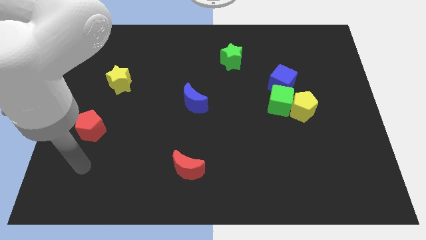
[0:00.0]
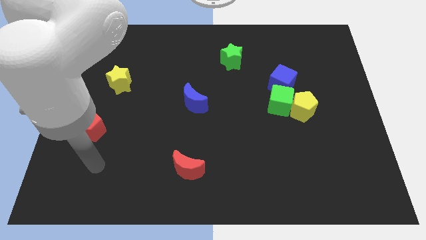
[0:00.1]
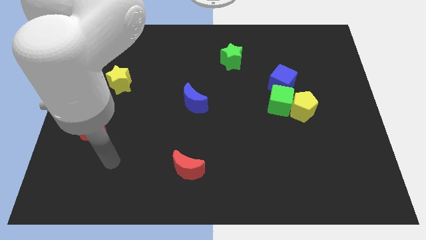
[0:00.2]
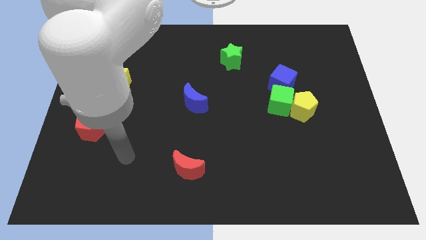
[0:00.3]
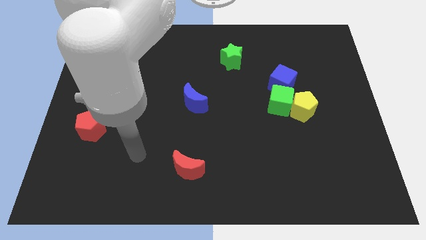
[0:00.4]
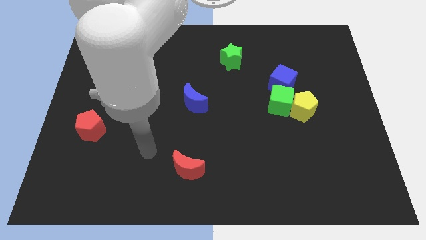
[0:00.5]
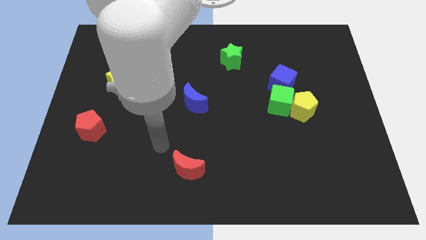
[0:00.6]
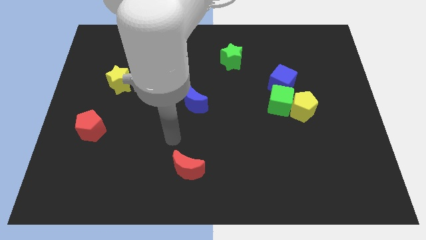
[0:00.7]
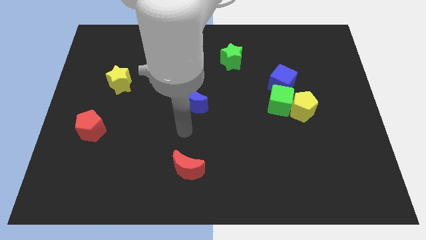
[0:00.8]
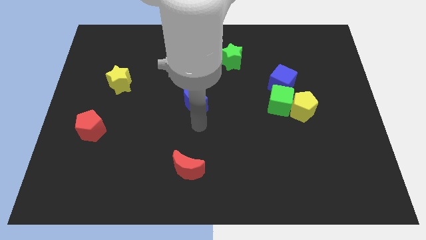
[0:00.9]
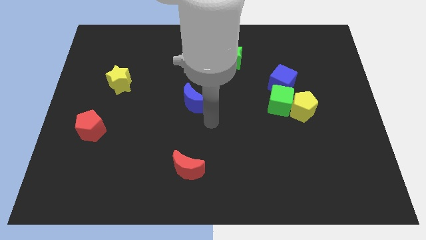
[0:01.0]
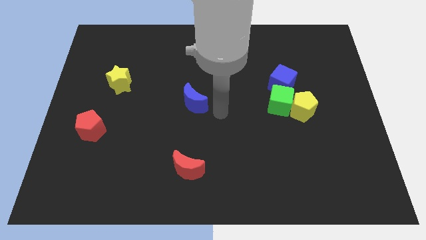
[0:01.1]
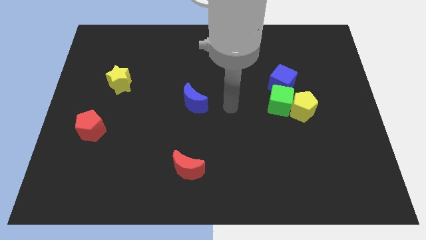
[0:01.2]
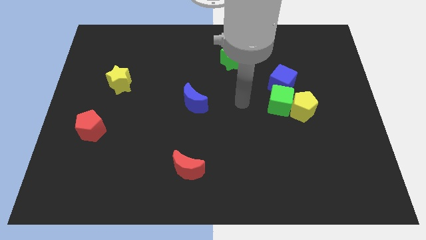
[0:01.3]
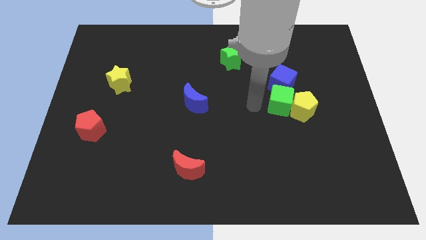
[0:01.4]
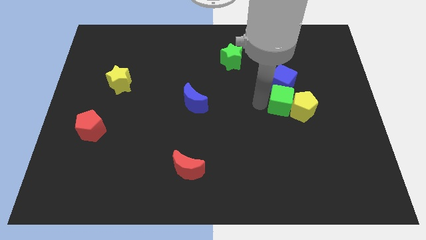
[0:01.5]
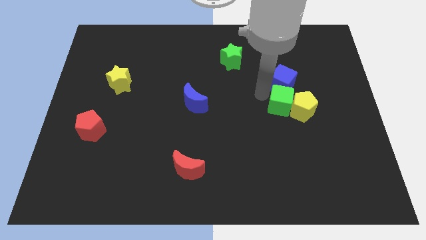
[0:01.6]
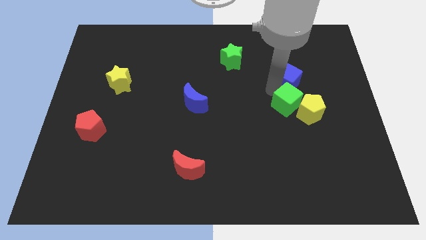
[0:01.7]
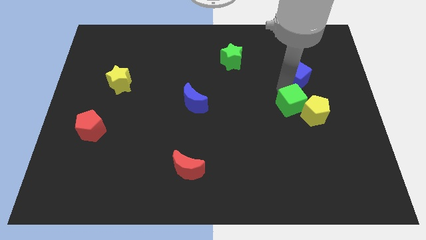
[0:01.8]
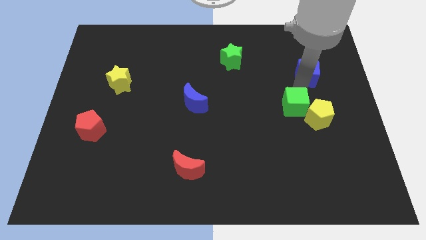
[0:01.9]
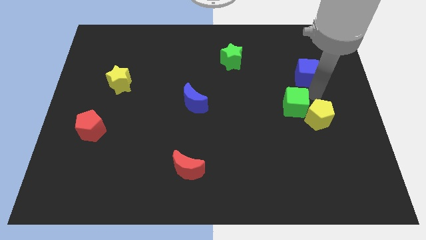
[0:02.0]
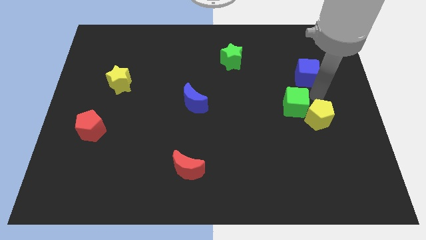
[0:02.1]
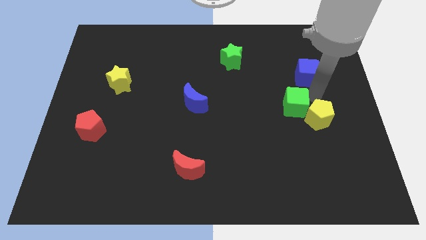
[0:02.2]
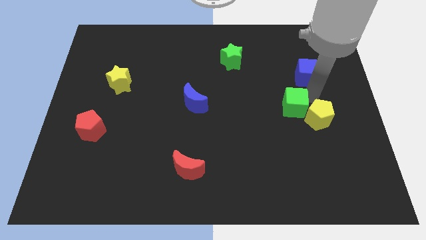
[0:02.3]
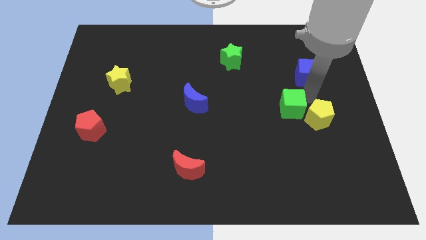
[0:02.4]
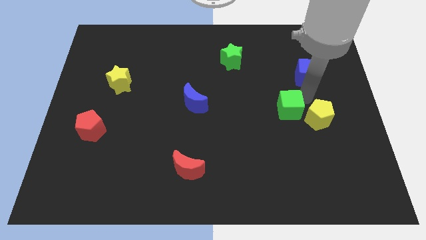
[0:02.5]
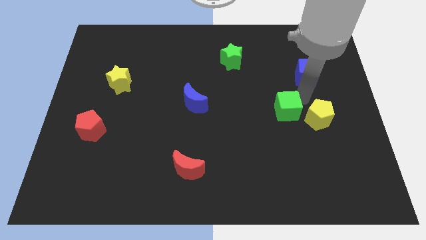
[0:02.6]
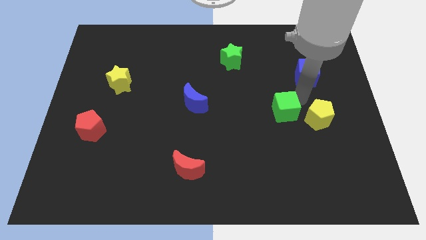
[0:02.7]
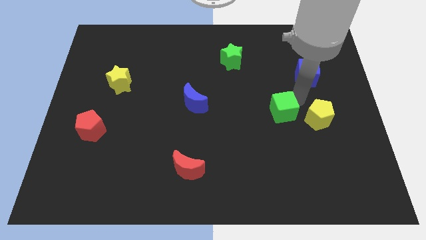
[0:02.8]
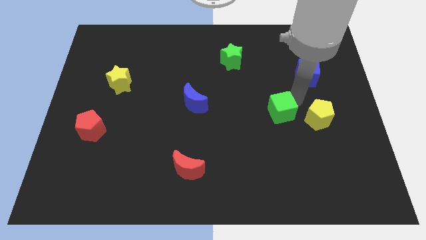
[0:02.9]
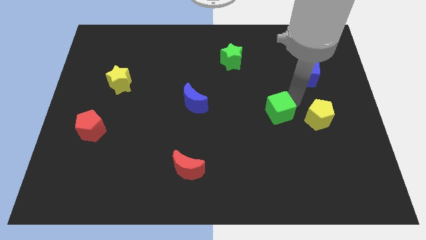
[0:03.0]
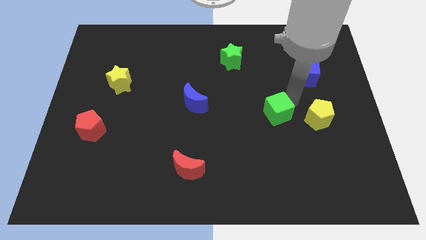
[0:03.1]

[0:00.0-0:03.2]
pull the green cube apart from the yellow pentagon and blue cube

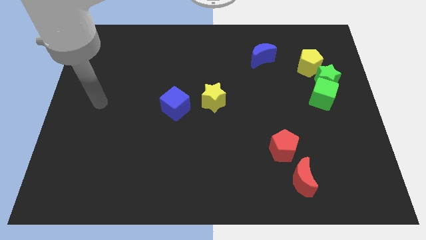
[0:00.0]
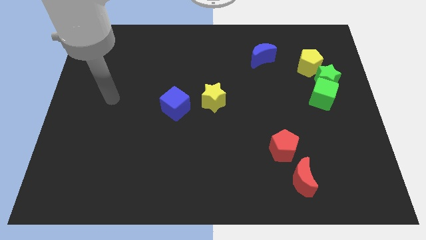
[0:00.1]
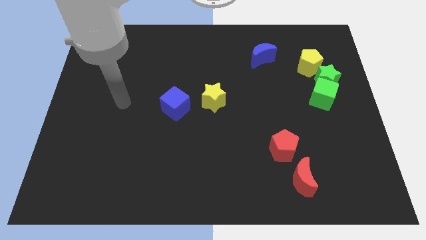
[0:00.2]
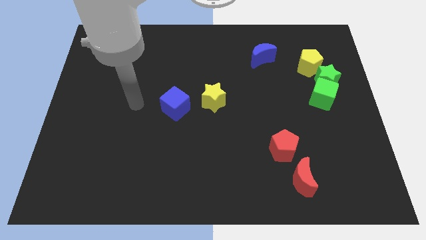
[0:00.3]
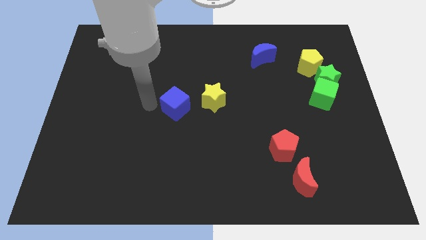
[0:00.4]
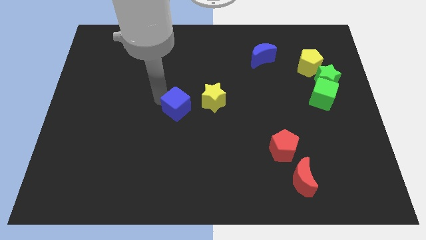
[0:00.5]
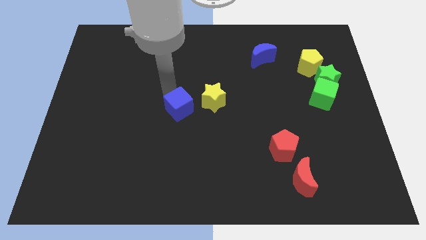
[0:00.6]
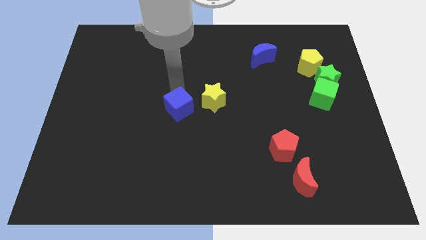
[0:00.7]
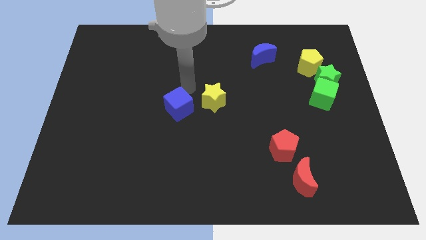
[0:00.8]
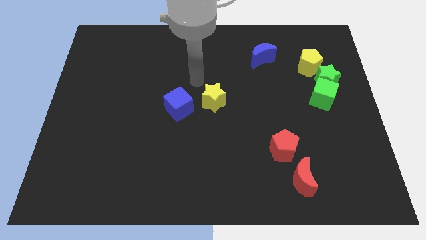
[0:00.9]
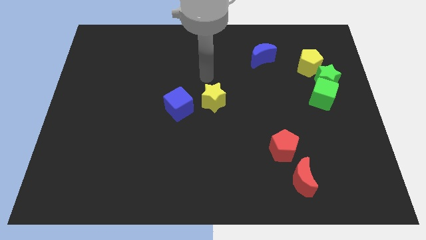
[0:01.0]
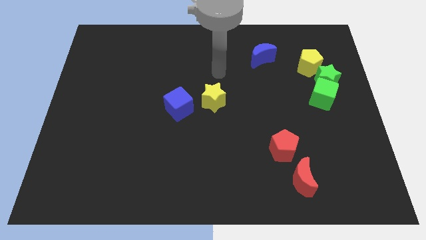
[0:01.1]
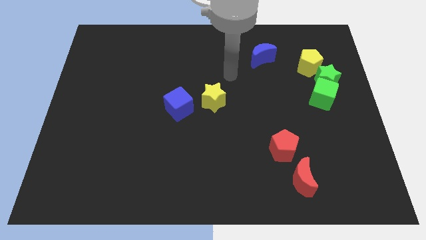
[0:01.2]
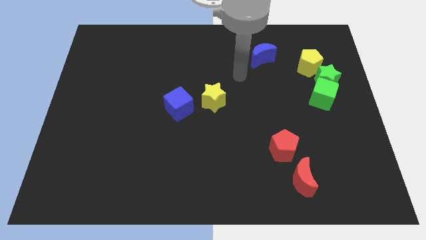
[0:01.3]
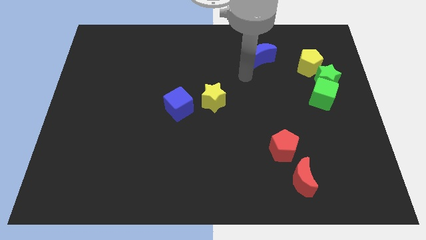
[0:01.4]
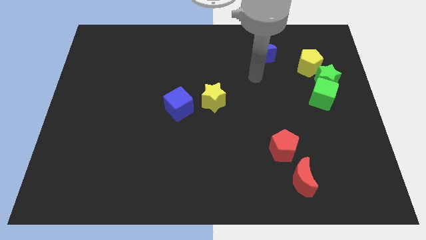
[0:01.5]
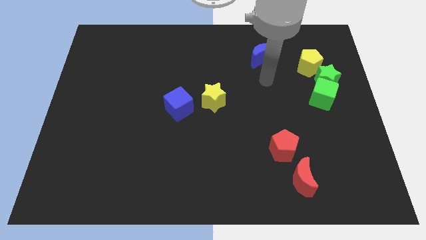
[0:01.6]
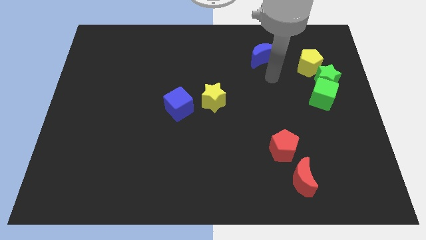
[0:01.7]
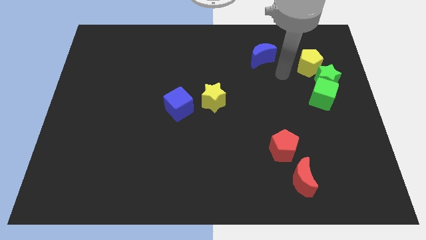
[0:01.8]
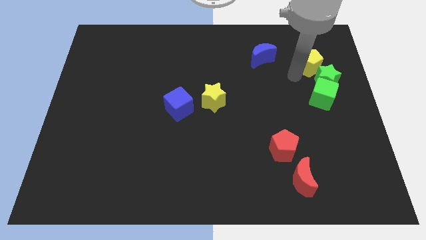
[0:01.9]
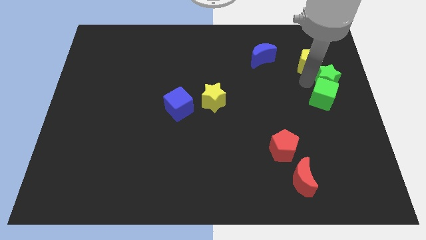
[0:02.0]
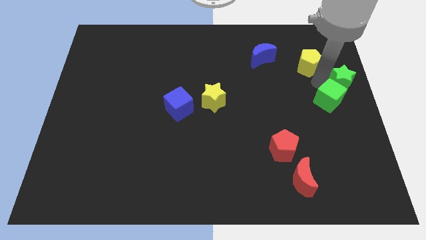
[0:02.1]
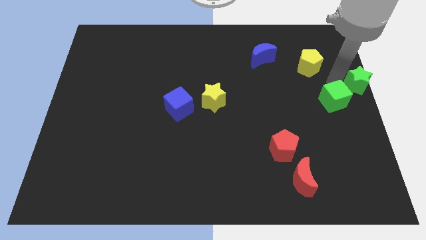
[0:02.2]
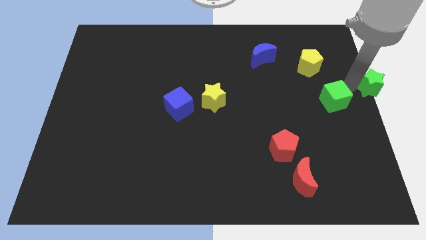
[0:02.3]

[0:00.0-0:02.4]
separate the green cube from the green star

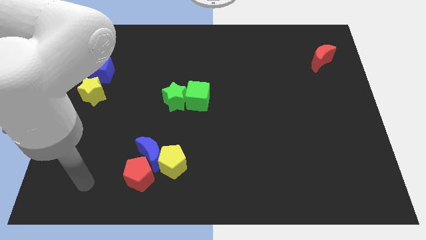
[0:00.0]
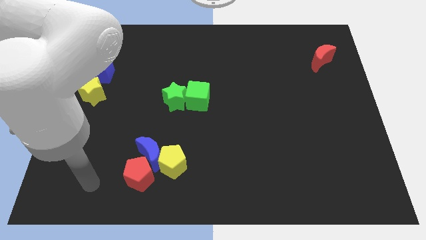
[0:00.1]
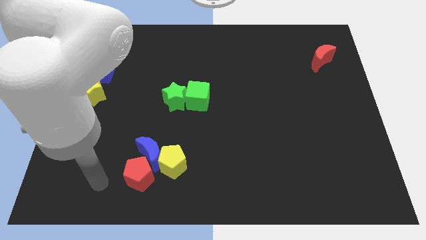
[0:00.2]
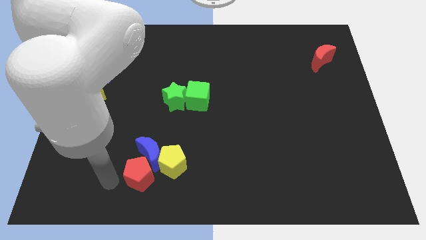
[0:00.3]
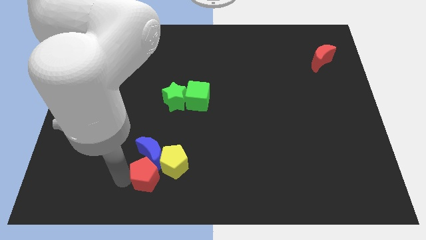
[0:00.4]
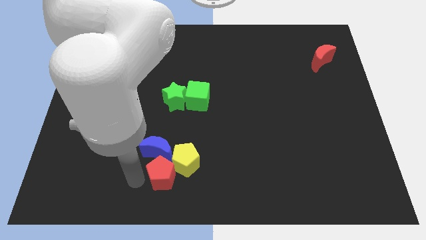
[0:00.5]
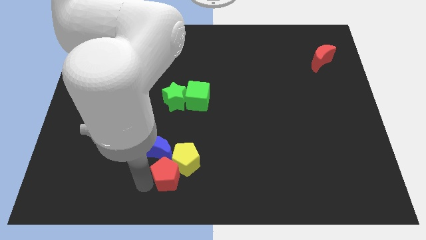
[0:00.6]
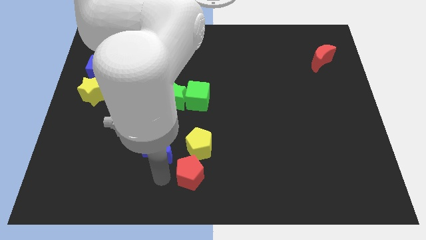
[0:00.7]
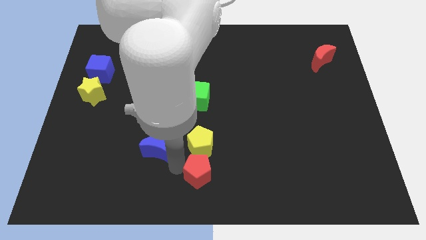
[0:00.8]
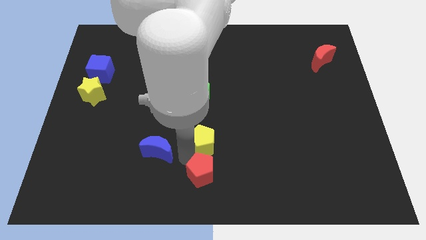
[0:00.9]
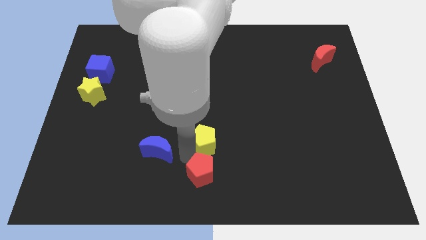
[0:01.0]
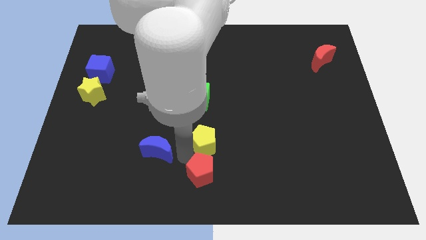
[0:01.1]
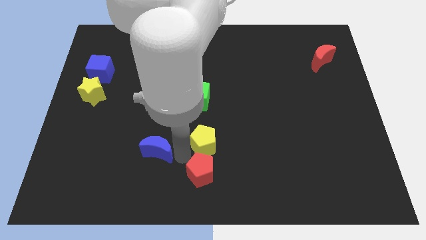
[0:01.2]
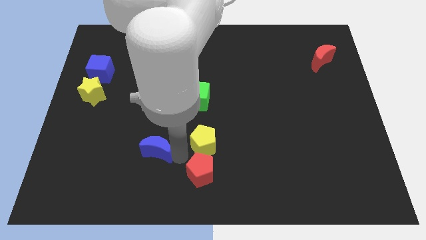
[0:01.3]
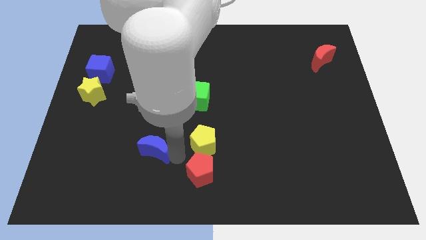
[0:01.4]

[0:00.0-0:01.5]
pull the blue moon apart from the yellow pentagon and red pentagon

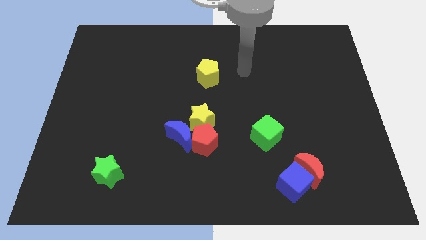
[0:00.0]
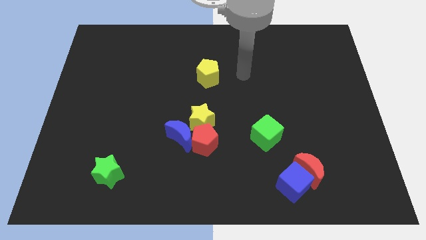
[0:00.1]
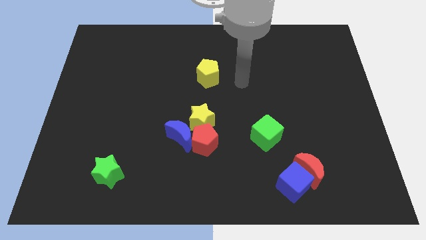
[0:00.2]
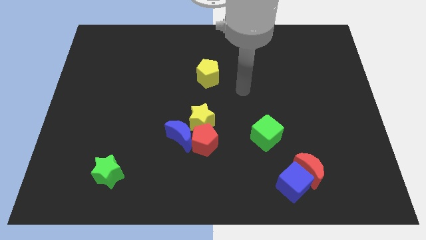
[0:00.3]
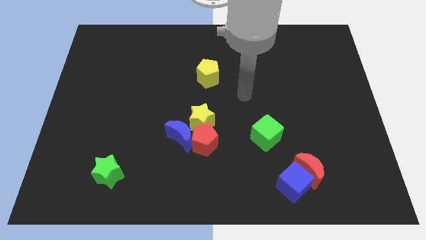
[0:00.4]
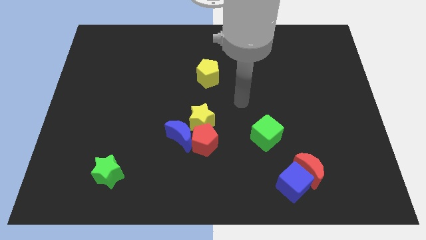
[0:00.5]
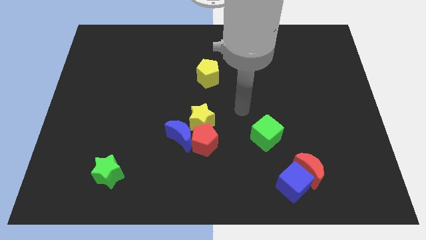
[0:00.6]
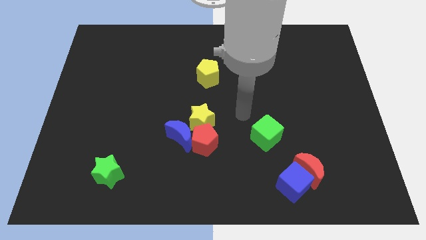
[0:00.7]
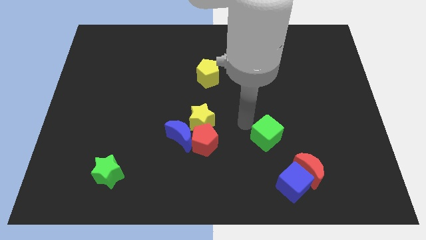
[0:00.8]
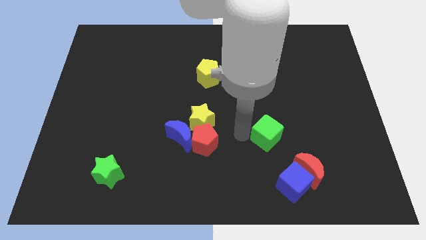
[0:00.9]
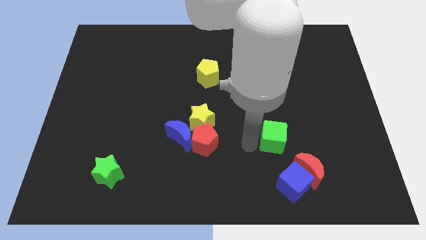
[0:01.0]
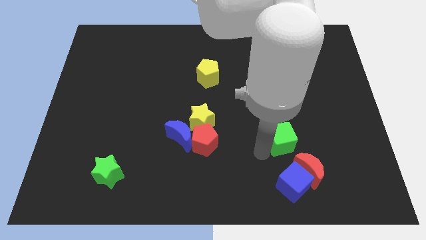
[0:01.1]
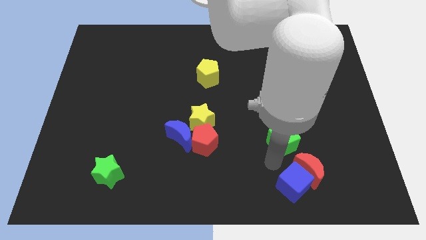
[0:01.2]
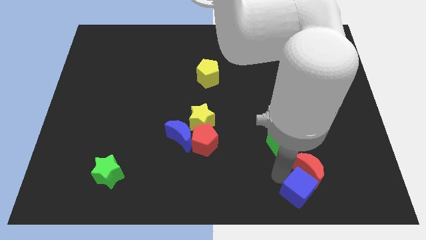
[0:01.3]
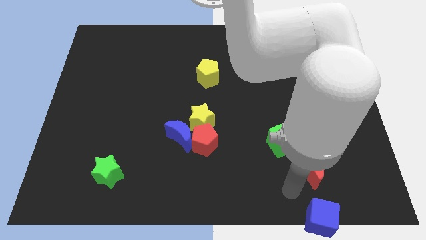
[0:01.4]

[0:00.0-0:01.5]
pull the red moon apart from the blue cube

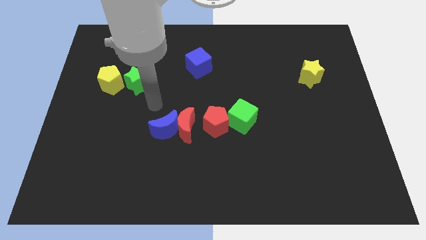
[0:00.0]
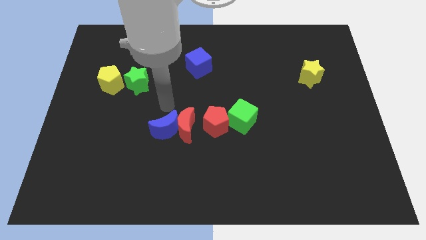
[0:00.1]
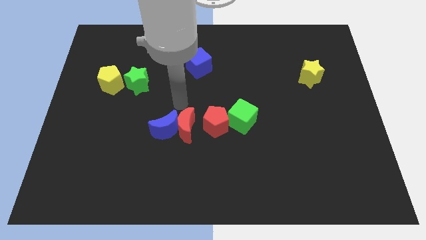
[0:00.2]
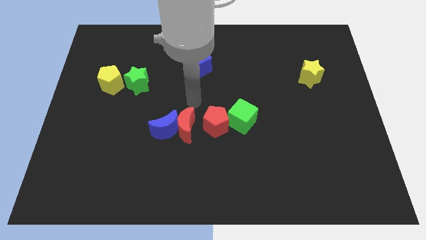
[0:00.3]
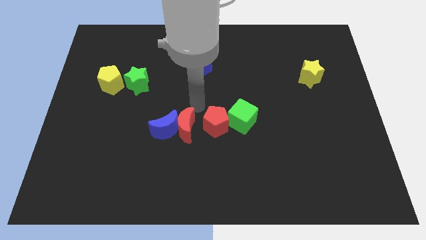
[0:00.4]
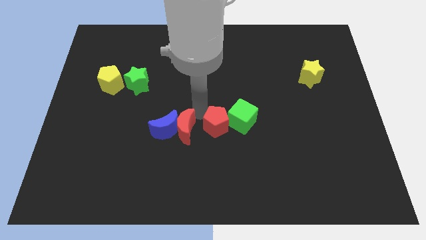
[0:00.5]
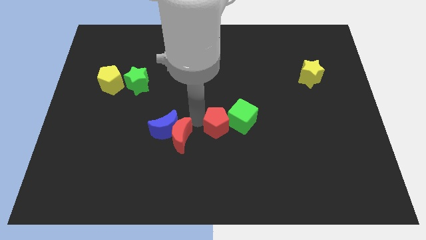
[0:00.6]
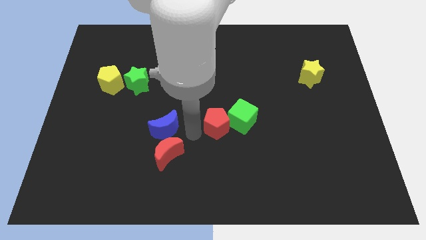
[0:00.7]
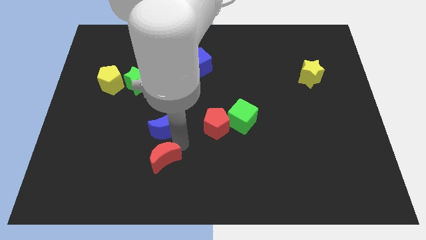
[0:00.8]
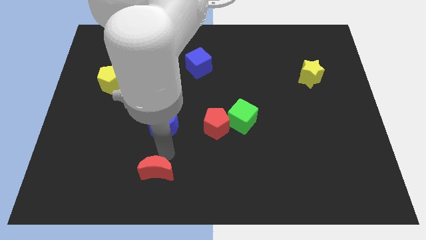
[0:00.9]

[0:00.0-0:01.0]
move the blue moon away from the red moon
